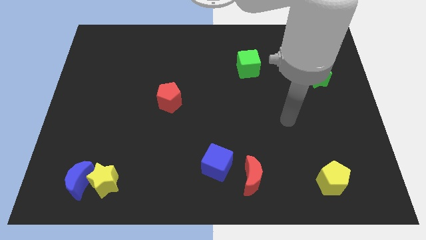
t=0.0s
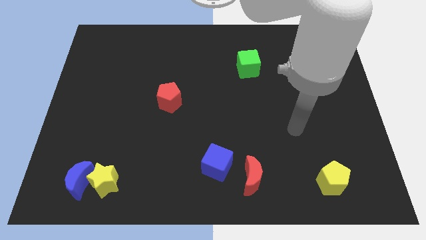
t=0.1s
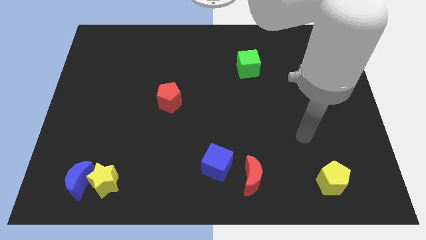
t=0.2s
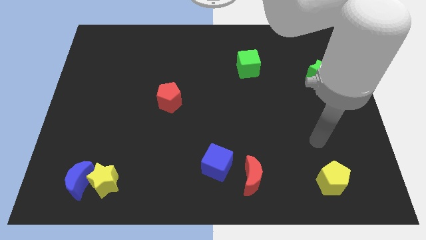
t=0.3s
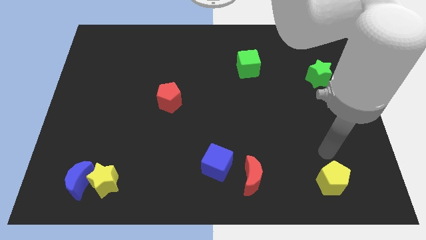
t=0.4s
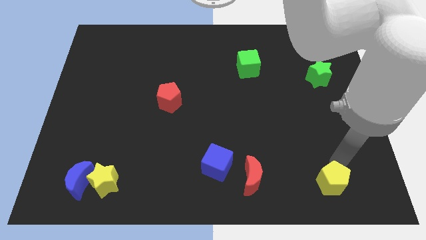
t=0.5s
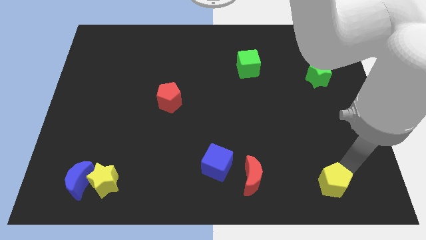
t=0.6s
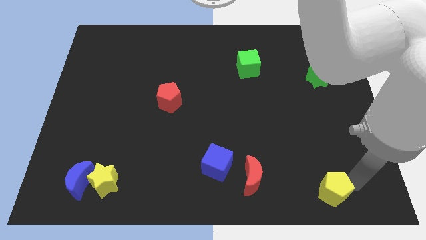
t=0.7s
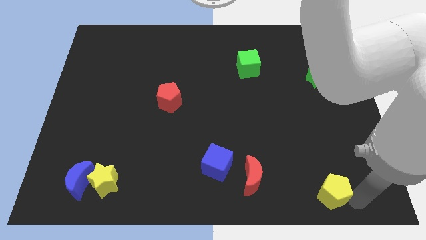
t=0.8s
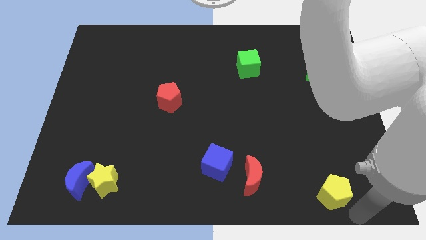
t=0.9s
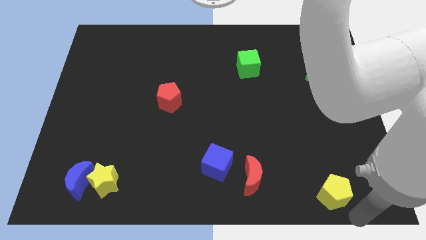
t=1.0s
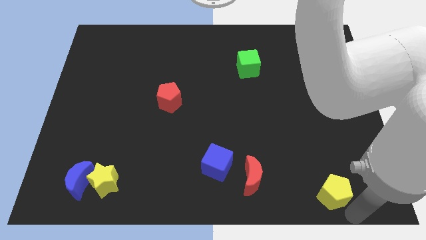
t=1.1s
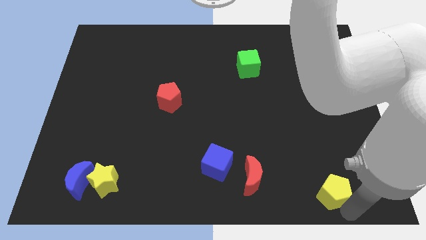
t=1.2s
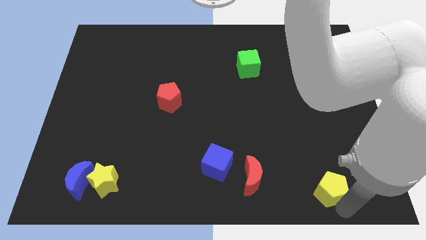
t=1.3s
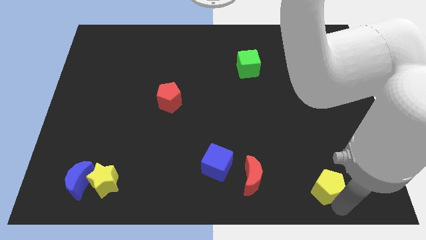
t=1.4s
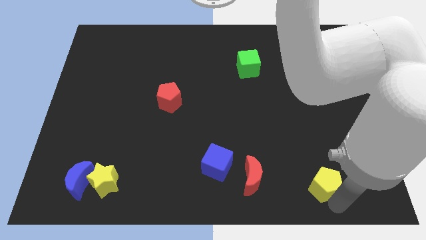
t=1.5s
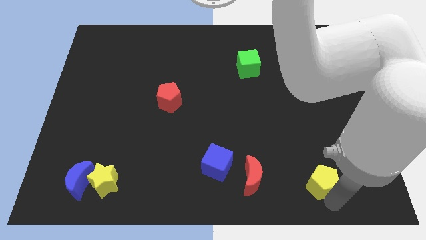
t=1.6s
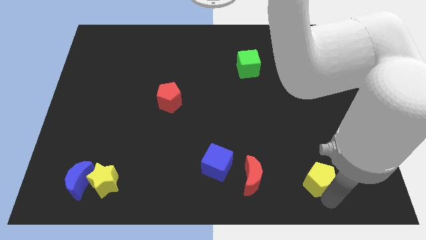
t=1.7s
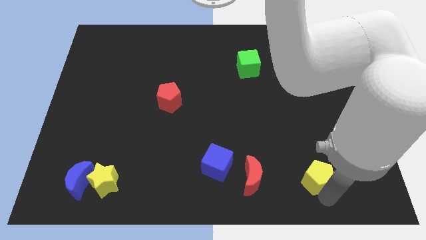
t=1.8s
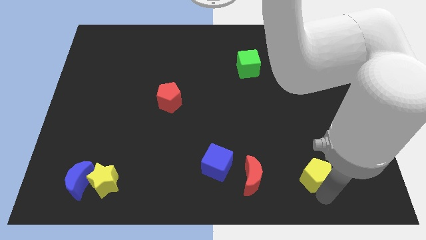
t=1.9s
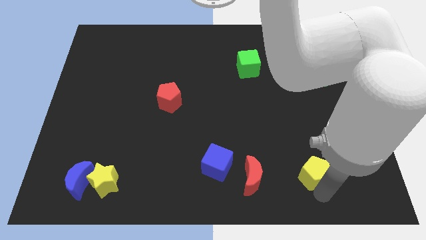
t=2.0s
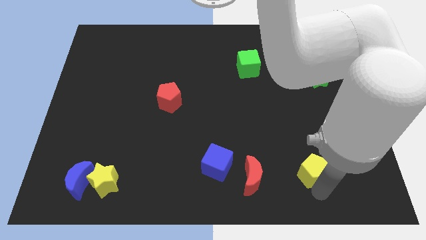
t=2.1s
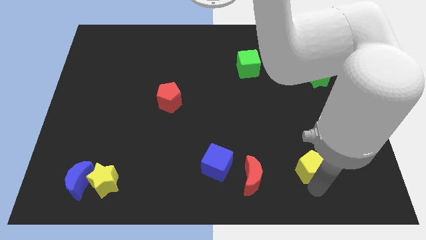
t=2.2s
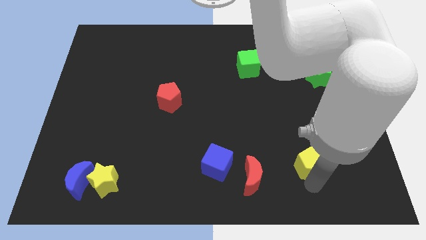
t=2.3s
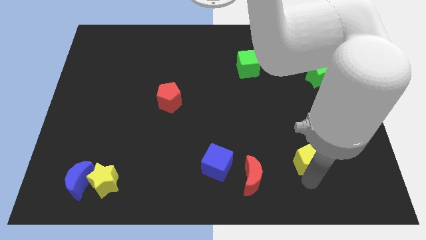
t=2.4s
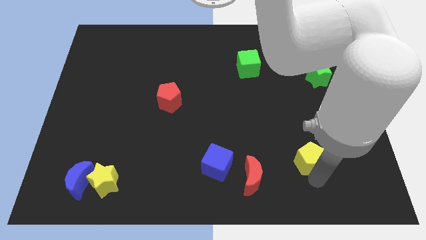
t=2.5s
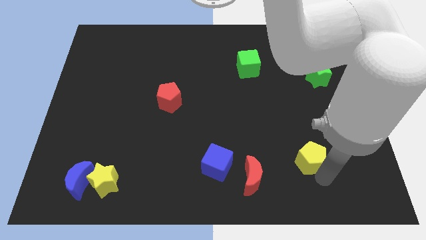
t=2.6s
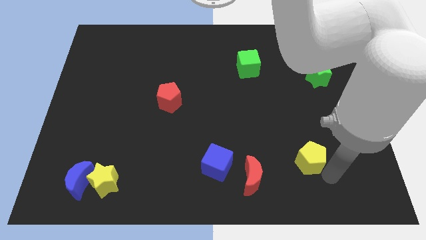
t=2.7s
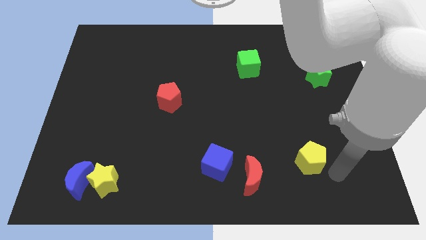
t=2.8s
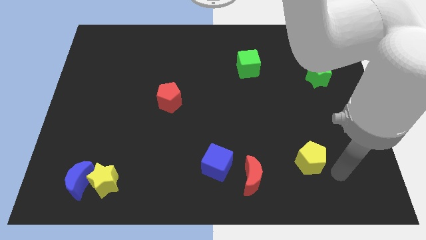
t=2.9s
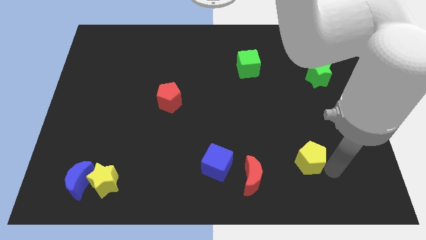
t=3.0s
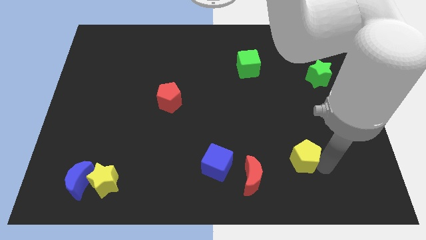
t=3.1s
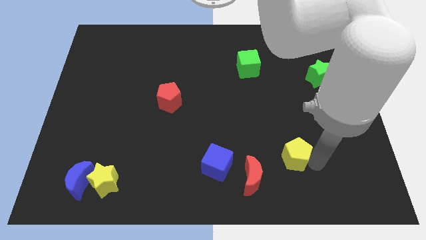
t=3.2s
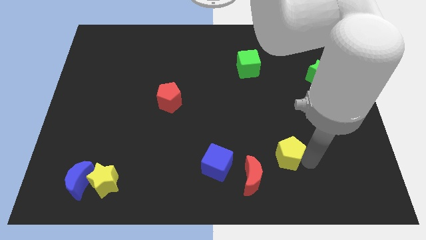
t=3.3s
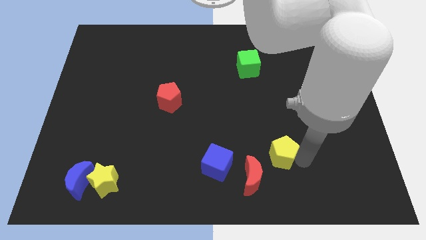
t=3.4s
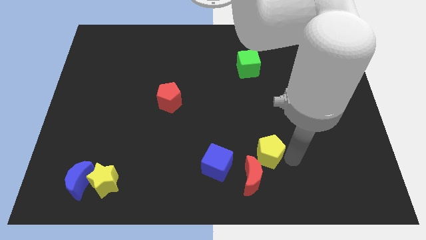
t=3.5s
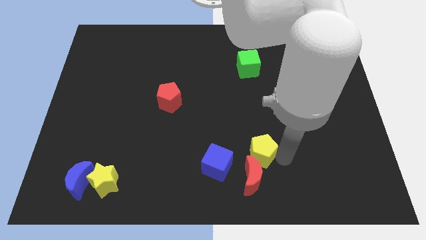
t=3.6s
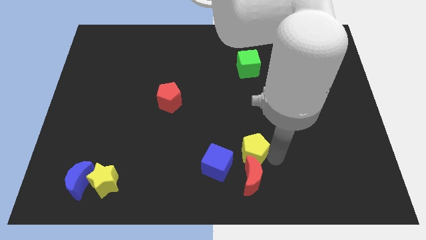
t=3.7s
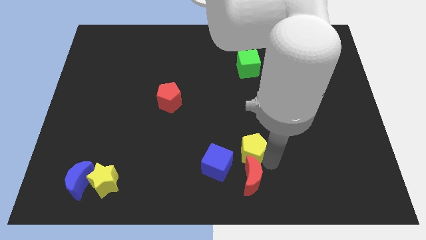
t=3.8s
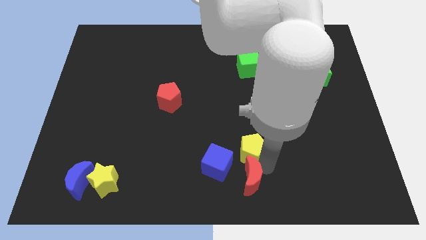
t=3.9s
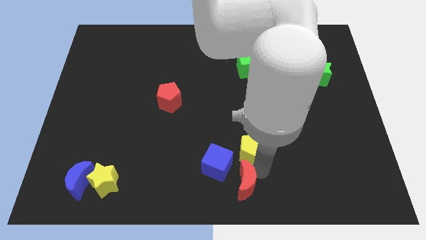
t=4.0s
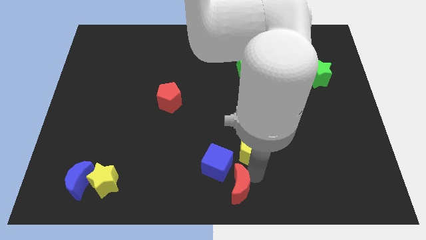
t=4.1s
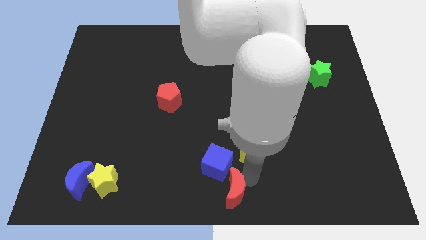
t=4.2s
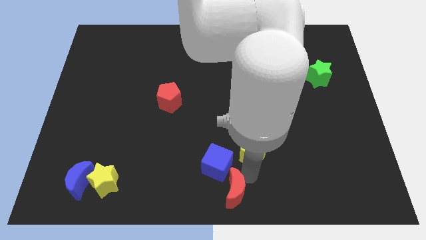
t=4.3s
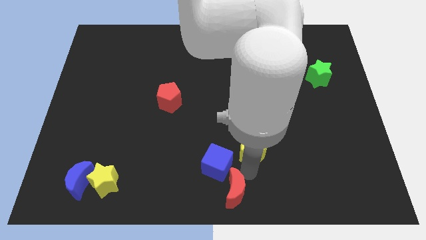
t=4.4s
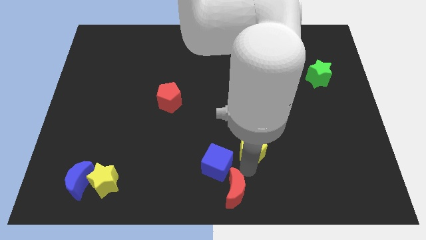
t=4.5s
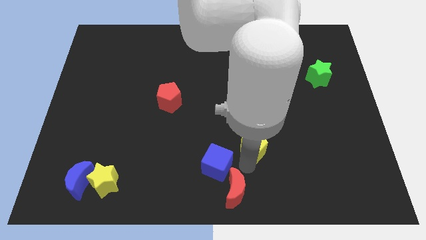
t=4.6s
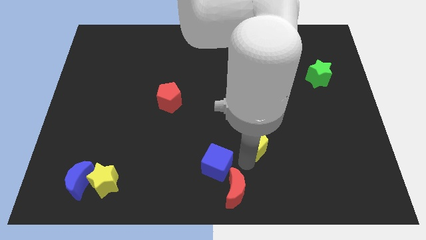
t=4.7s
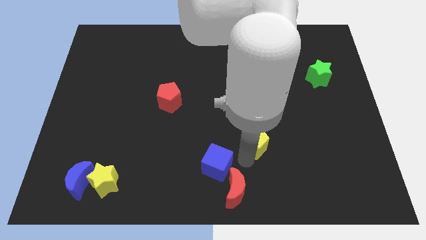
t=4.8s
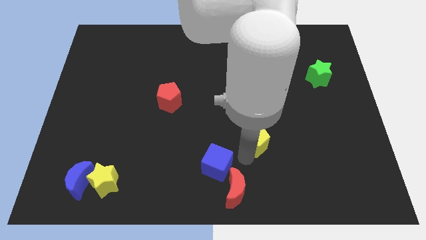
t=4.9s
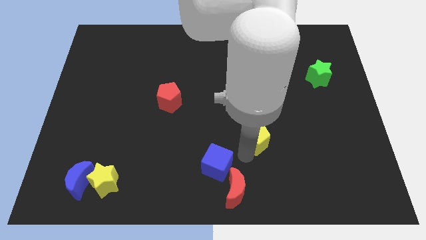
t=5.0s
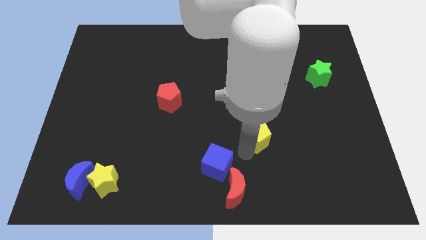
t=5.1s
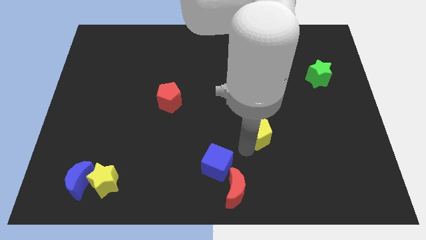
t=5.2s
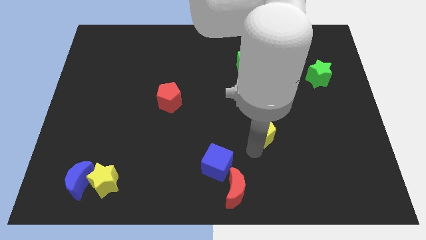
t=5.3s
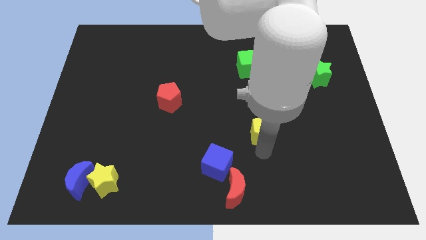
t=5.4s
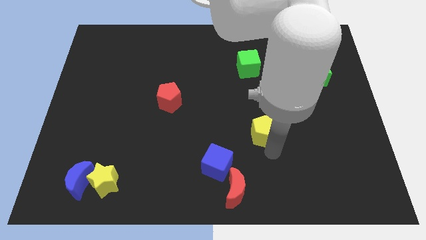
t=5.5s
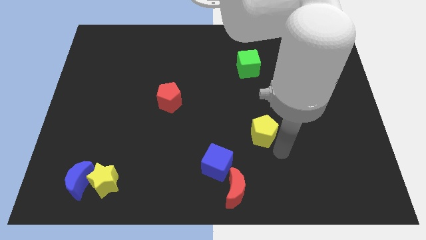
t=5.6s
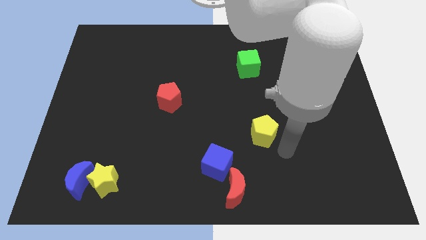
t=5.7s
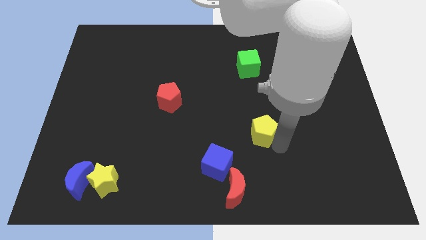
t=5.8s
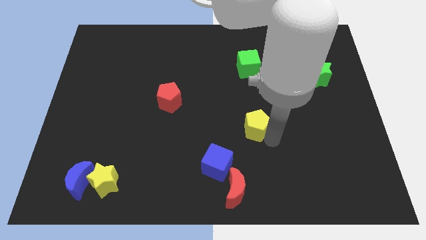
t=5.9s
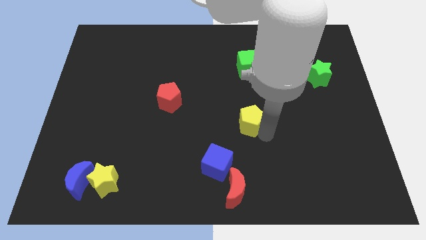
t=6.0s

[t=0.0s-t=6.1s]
push the yellow pentagon up and then left

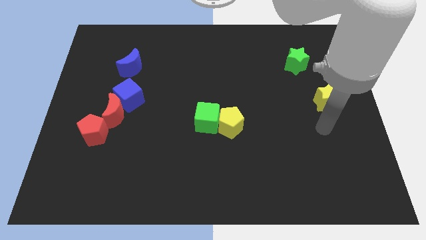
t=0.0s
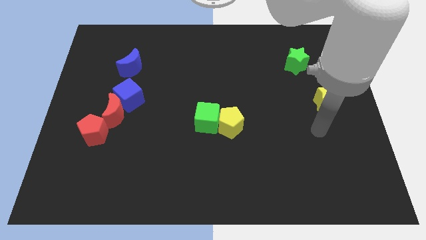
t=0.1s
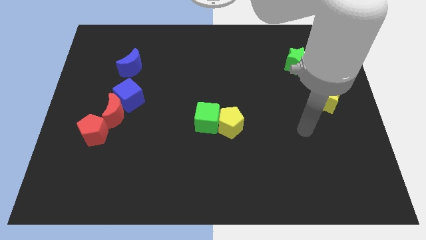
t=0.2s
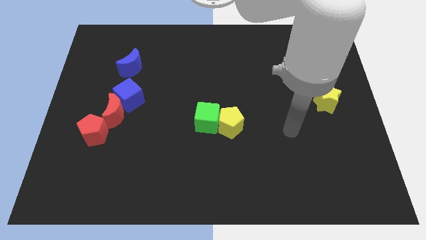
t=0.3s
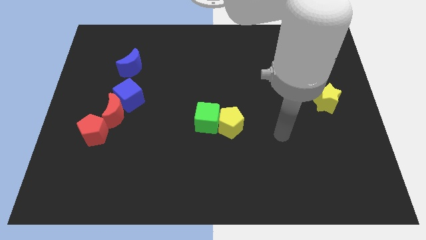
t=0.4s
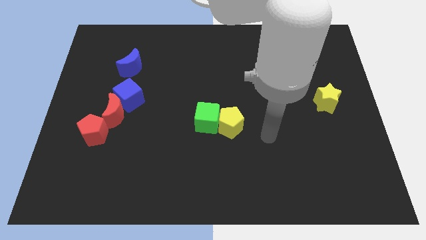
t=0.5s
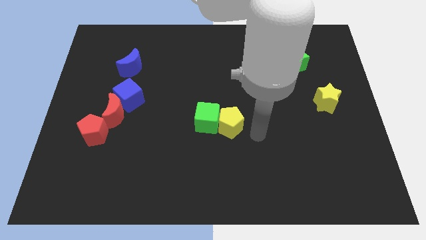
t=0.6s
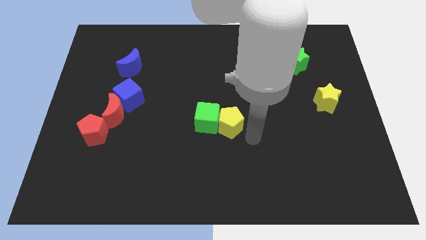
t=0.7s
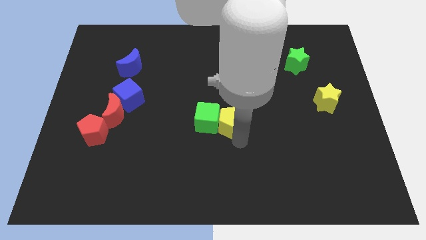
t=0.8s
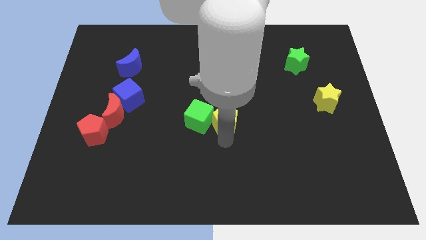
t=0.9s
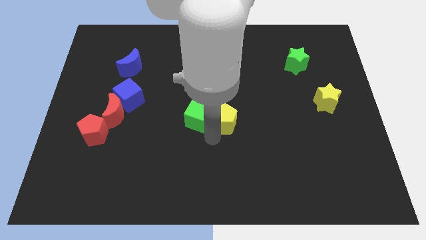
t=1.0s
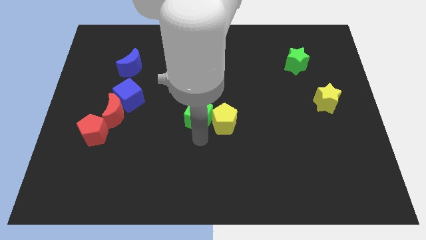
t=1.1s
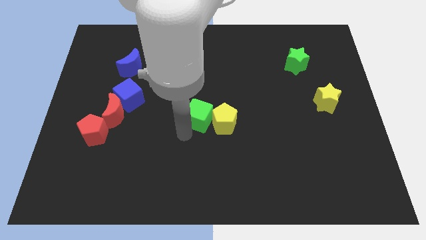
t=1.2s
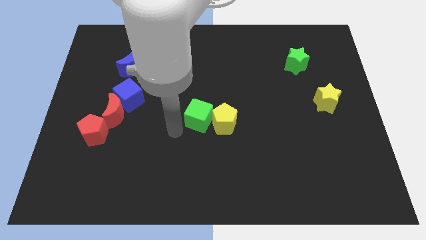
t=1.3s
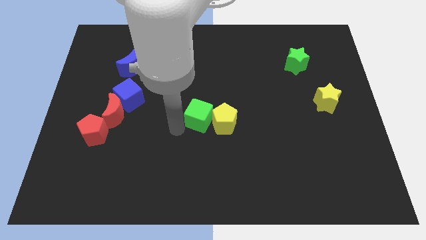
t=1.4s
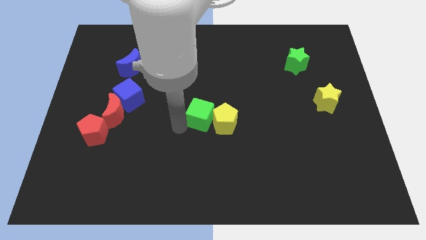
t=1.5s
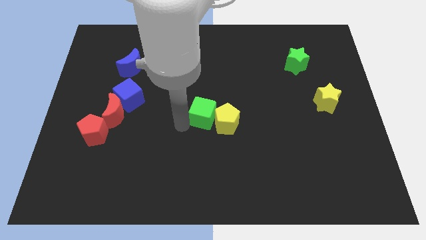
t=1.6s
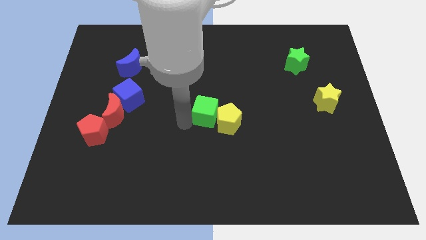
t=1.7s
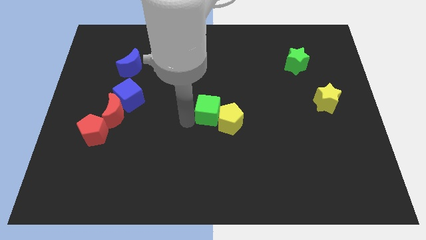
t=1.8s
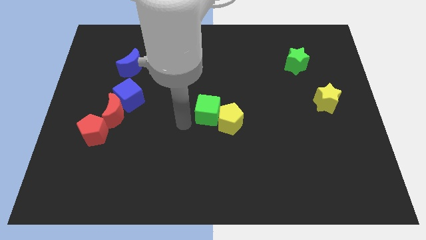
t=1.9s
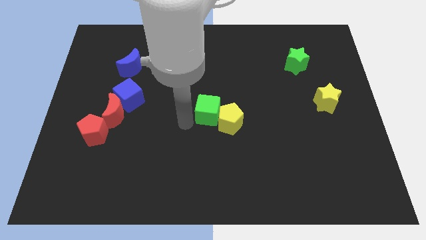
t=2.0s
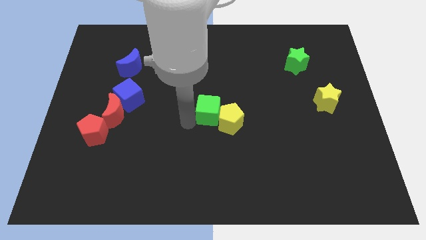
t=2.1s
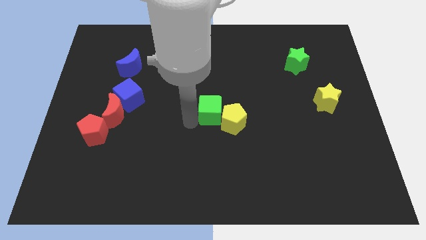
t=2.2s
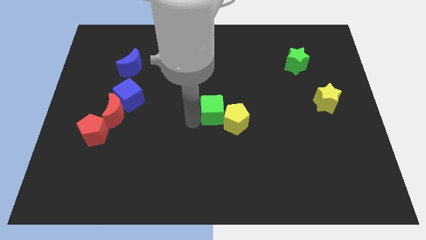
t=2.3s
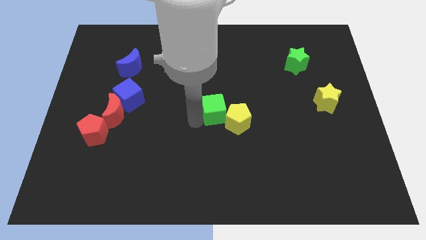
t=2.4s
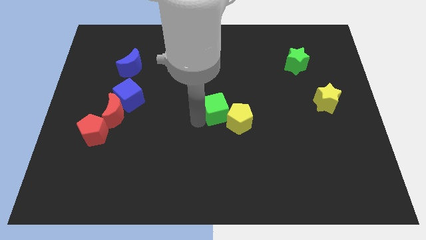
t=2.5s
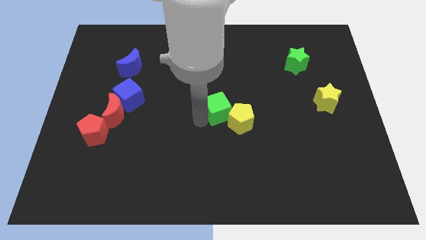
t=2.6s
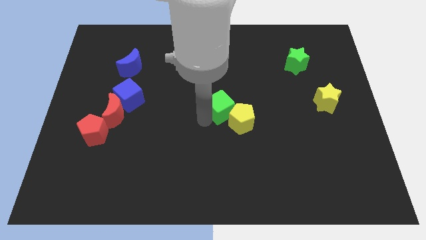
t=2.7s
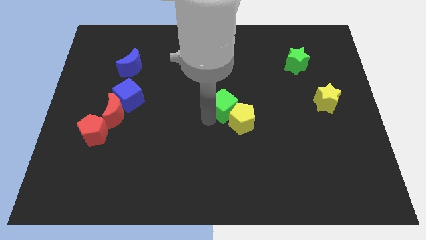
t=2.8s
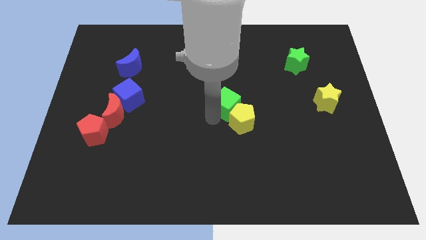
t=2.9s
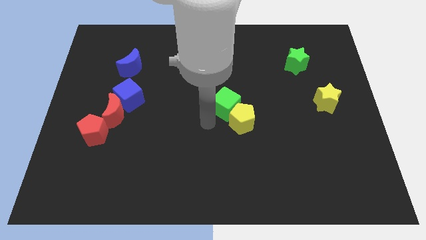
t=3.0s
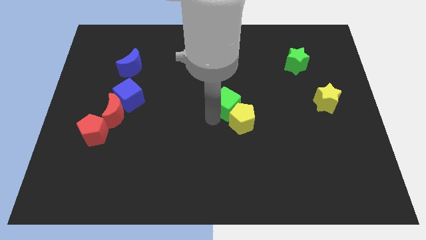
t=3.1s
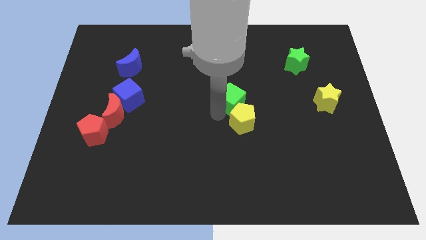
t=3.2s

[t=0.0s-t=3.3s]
slightly move the green cube up and to the right diagonally
